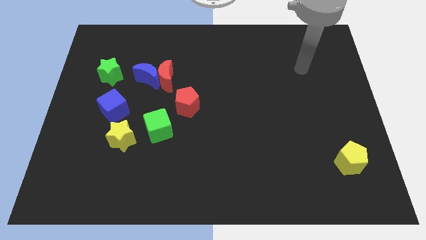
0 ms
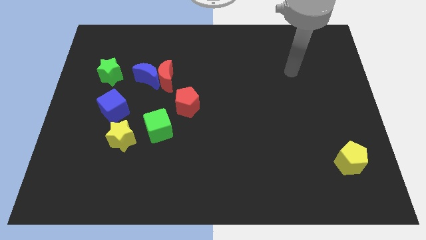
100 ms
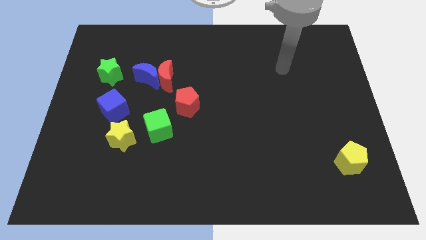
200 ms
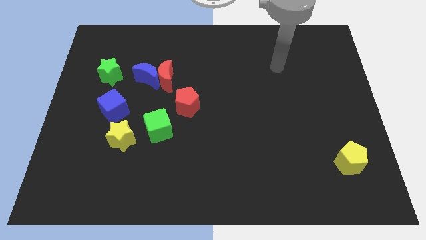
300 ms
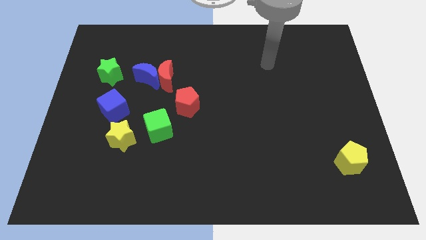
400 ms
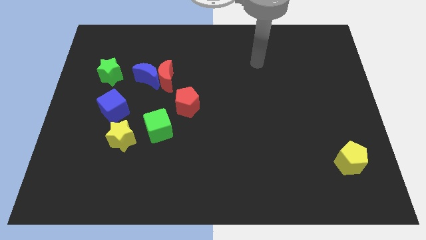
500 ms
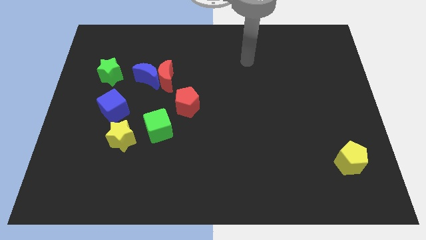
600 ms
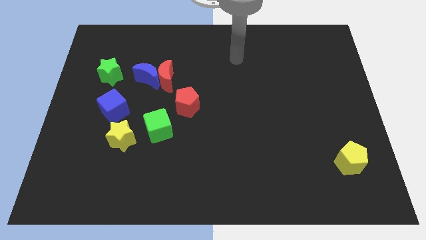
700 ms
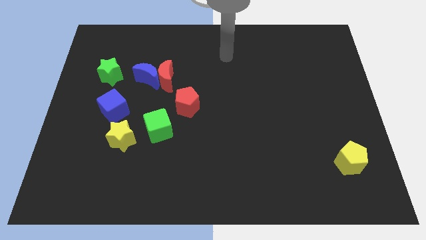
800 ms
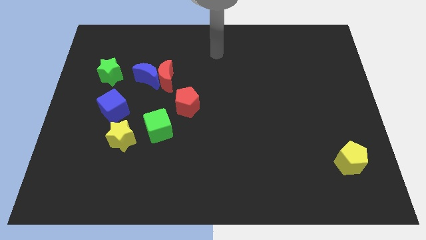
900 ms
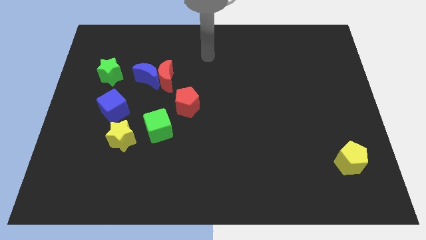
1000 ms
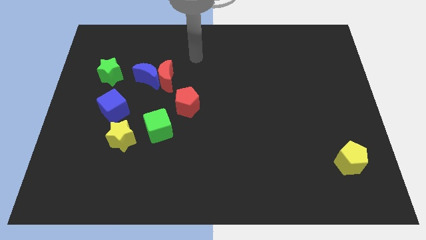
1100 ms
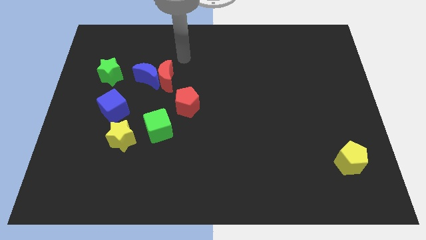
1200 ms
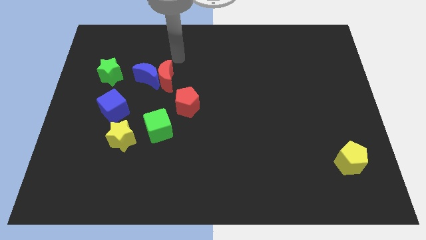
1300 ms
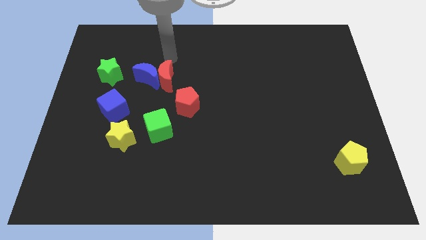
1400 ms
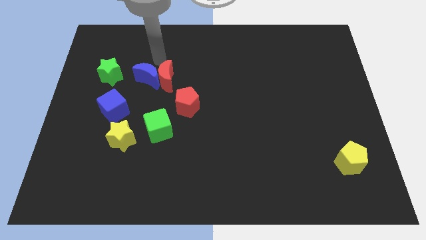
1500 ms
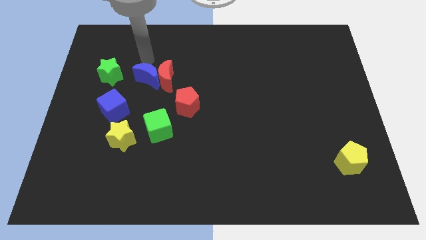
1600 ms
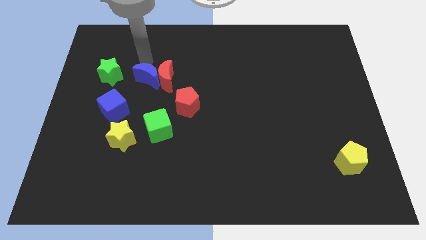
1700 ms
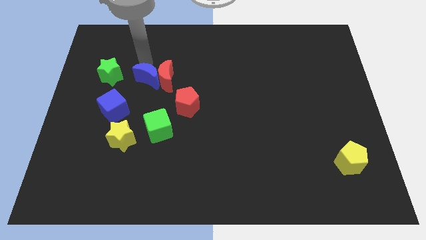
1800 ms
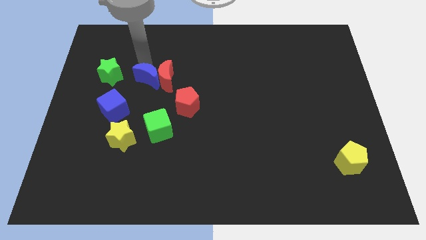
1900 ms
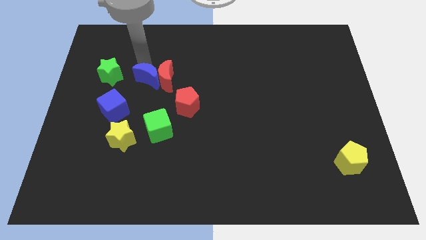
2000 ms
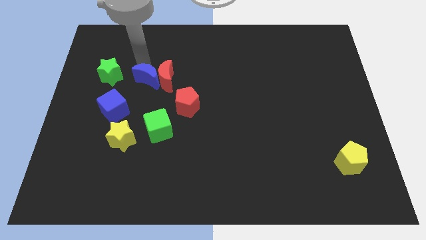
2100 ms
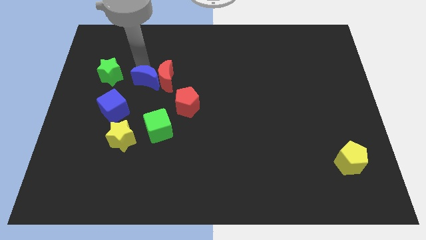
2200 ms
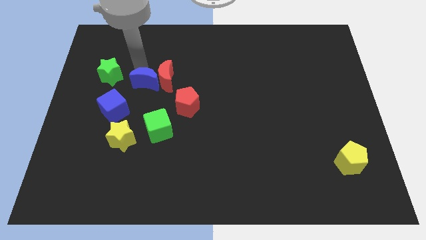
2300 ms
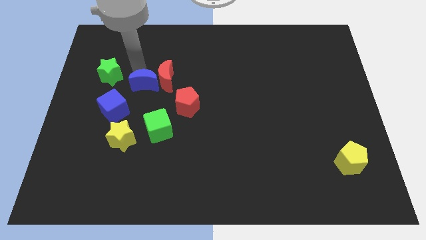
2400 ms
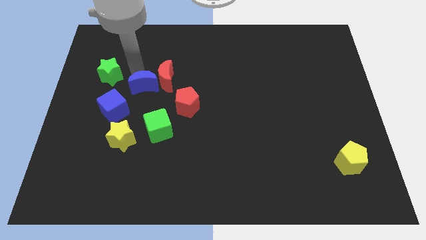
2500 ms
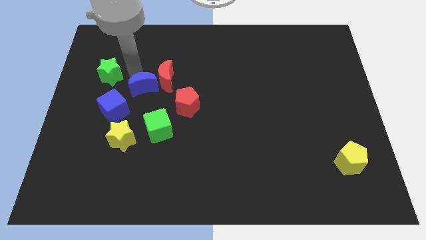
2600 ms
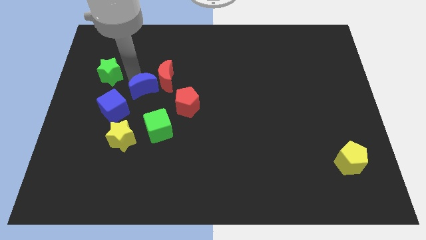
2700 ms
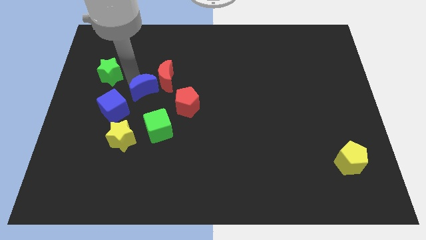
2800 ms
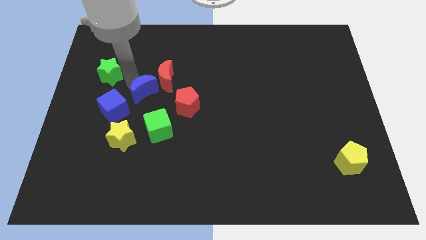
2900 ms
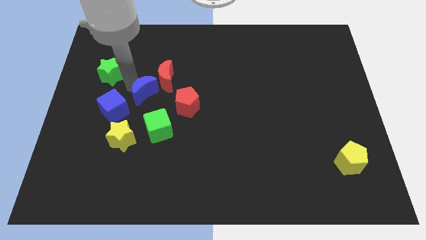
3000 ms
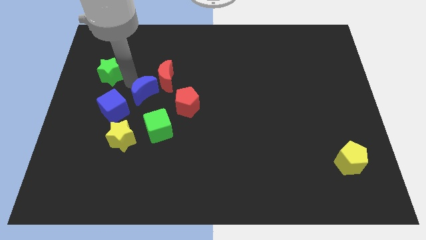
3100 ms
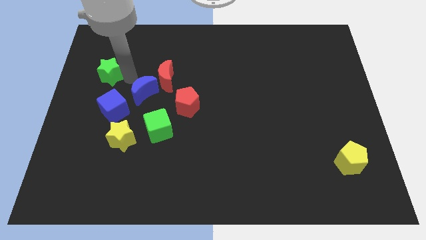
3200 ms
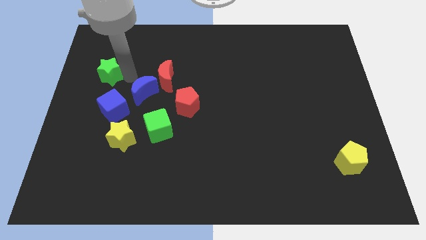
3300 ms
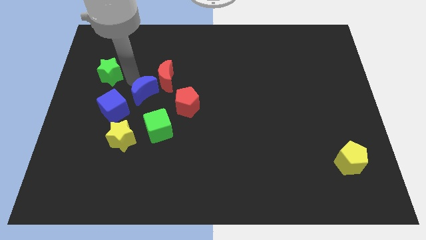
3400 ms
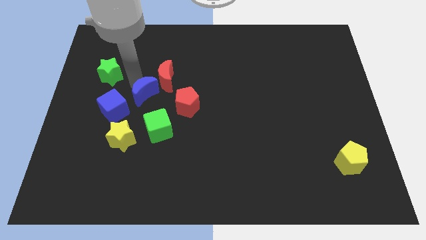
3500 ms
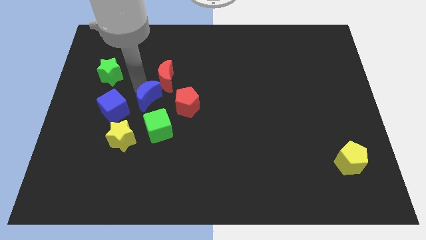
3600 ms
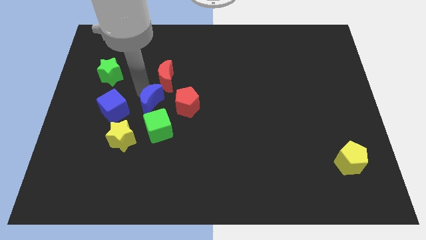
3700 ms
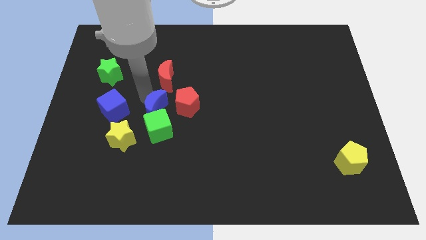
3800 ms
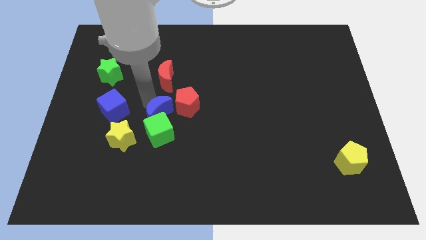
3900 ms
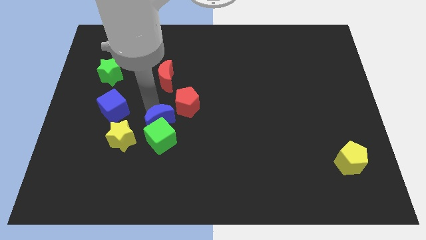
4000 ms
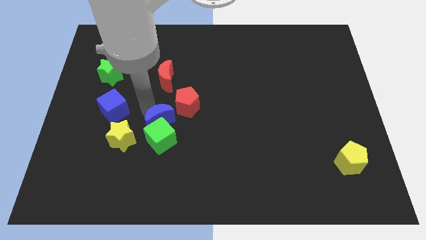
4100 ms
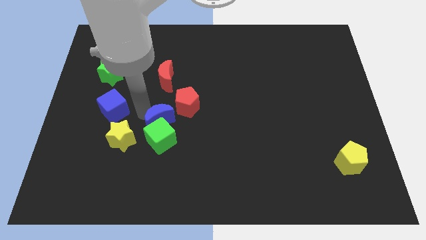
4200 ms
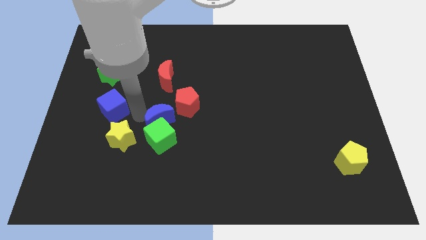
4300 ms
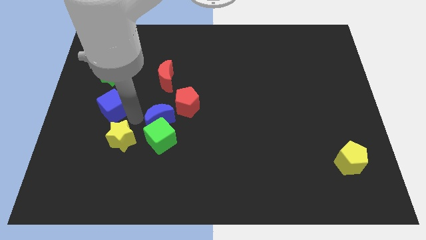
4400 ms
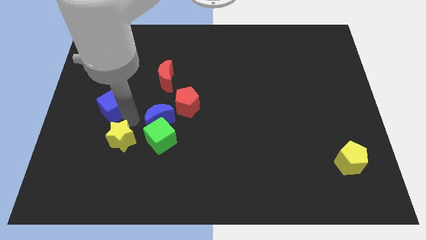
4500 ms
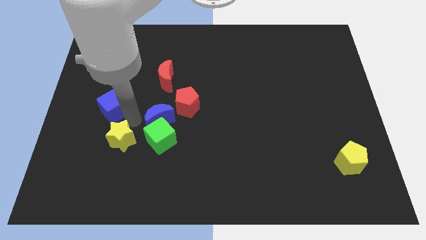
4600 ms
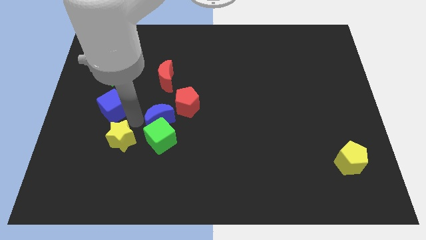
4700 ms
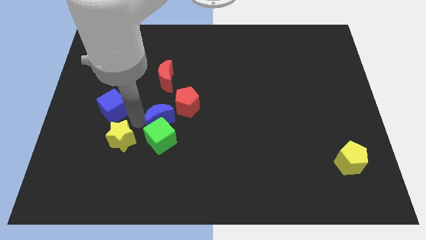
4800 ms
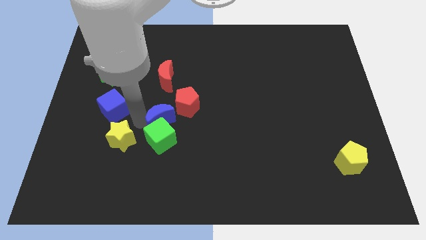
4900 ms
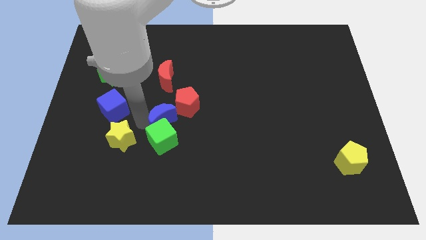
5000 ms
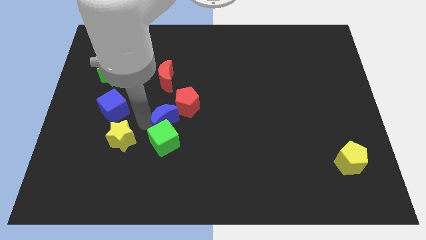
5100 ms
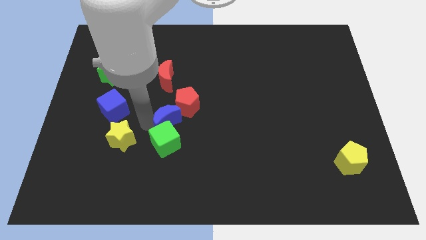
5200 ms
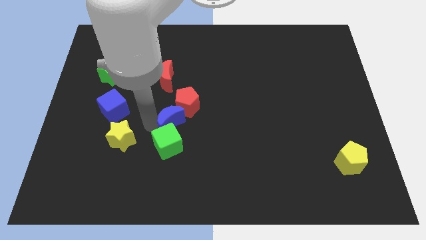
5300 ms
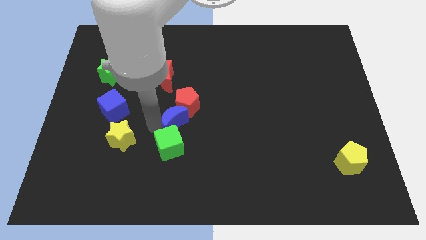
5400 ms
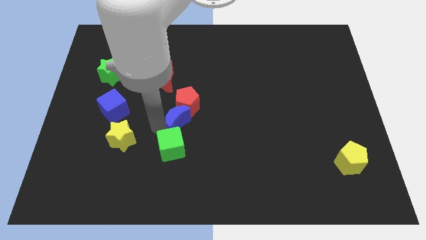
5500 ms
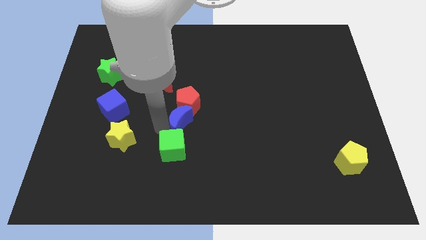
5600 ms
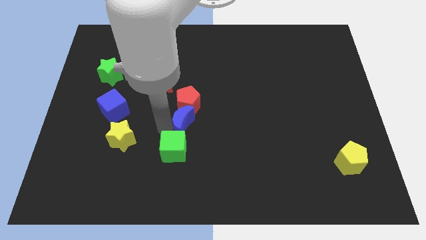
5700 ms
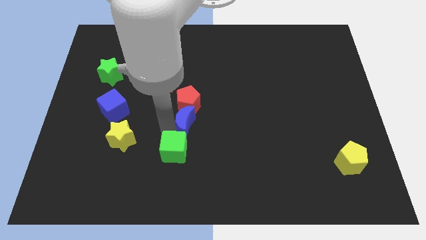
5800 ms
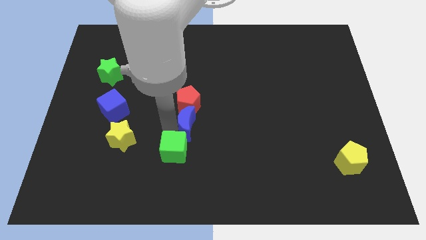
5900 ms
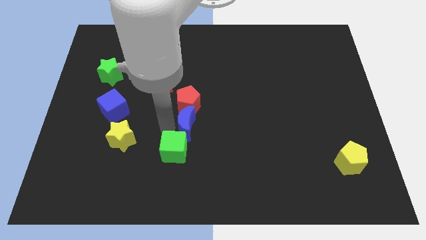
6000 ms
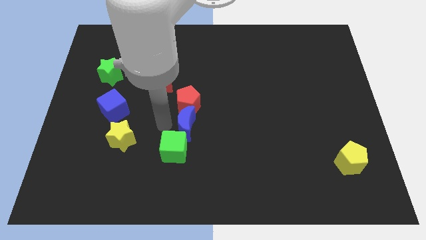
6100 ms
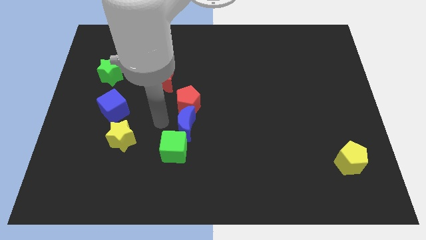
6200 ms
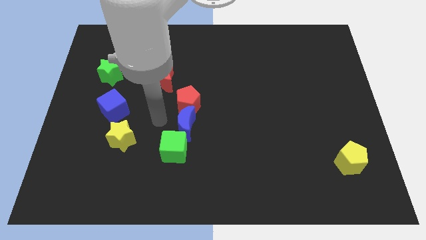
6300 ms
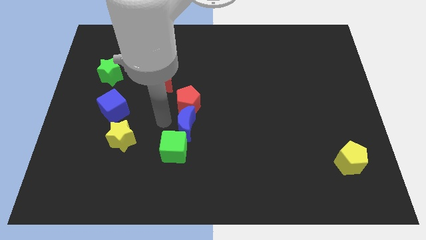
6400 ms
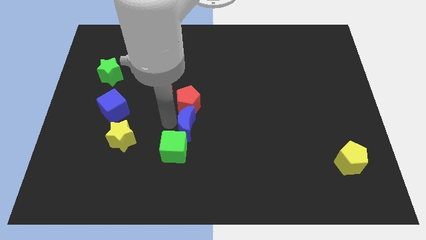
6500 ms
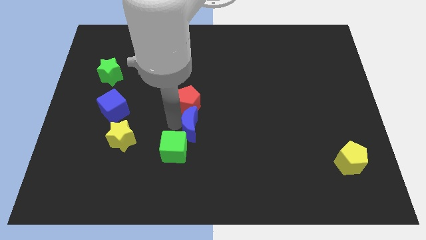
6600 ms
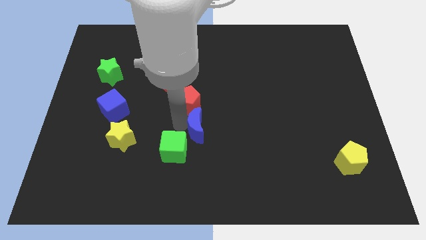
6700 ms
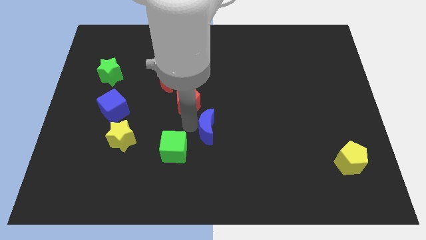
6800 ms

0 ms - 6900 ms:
move the blue moon downwards and right

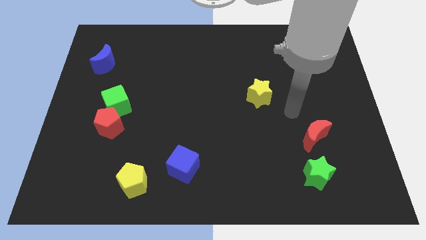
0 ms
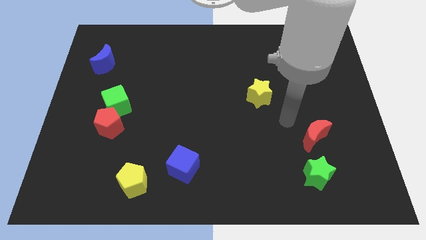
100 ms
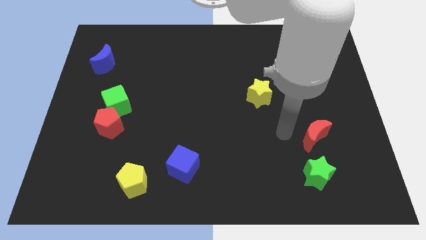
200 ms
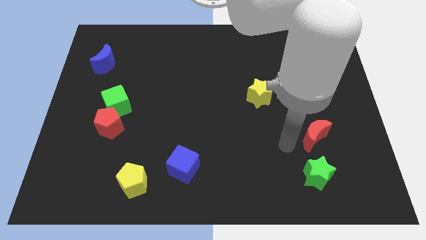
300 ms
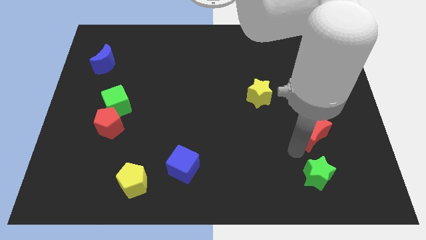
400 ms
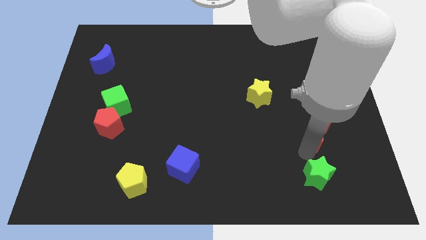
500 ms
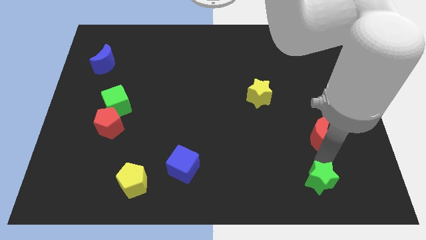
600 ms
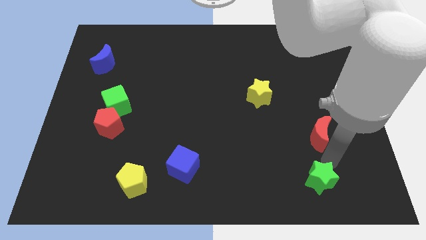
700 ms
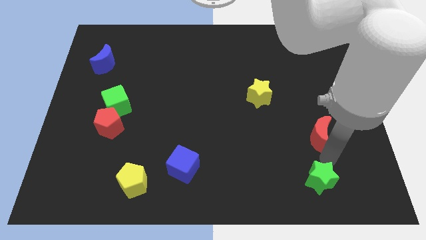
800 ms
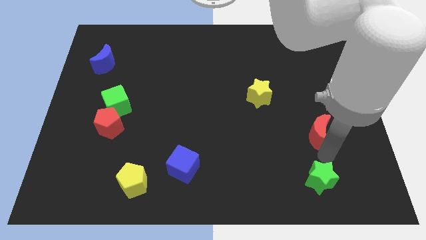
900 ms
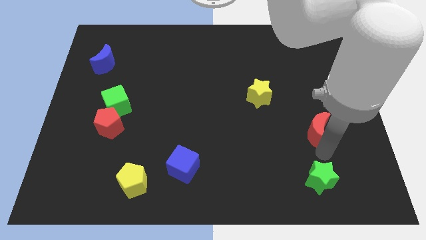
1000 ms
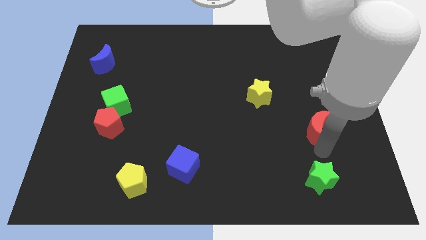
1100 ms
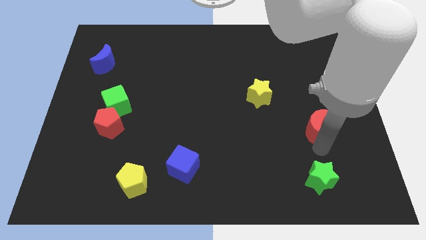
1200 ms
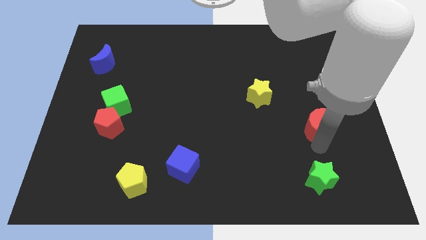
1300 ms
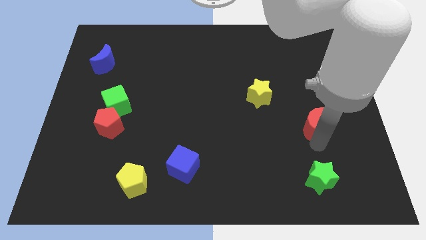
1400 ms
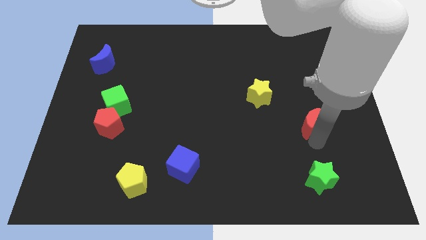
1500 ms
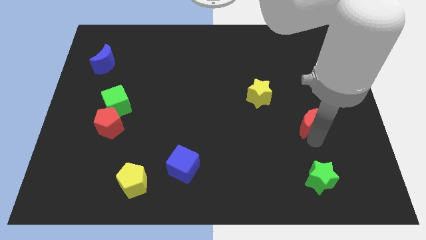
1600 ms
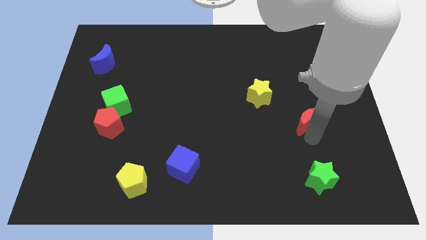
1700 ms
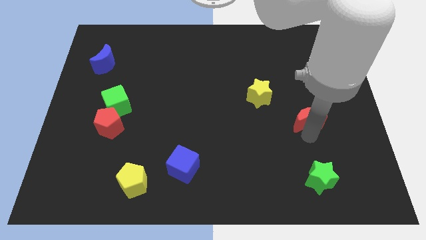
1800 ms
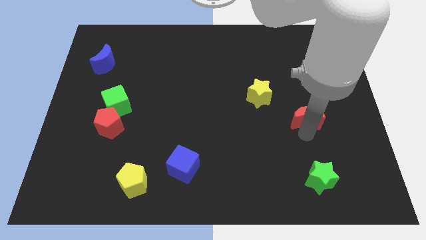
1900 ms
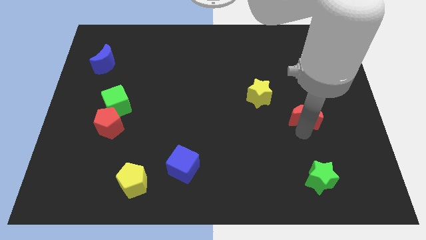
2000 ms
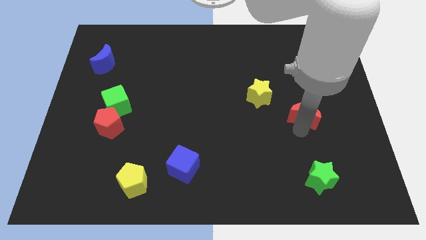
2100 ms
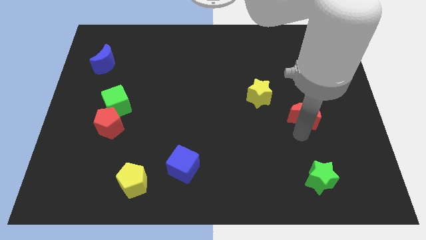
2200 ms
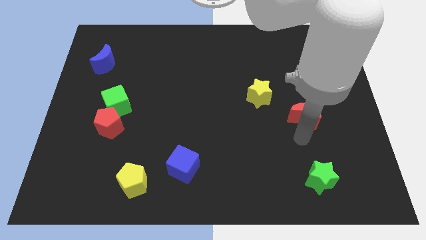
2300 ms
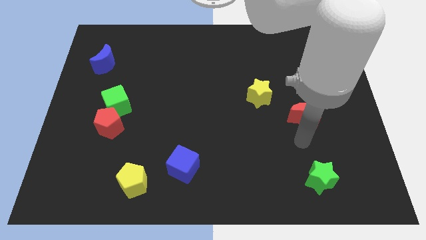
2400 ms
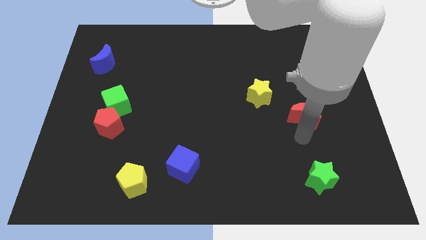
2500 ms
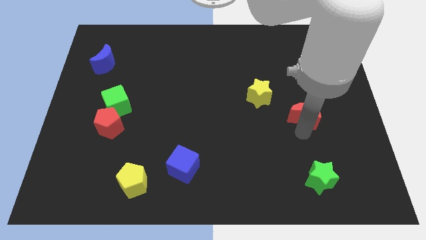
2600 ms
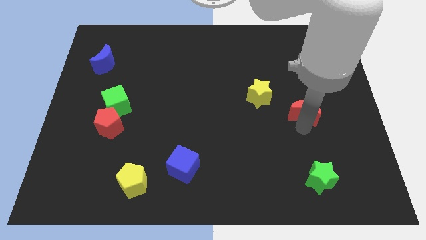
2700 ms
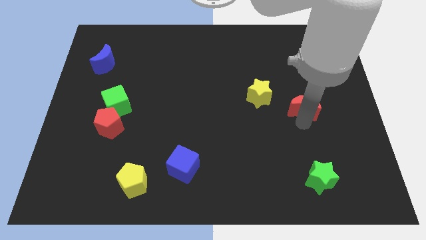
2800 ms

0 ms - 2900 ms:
slide the red moon up somewhat
